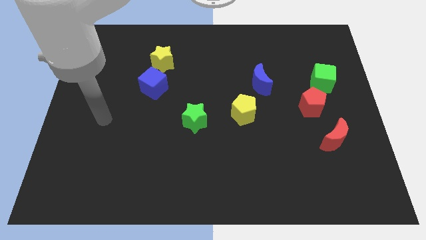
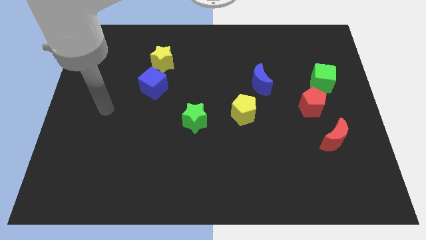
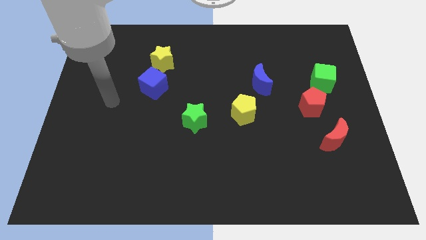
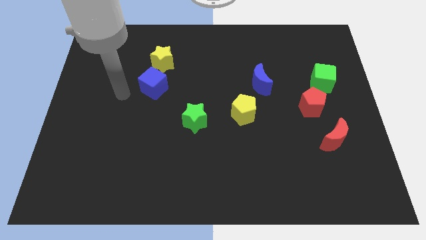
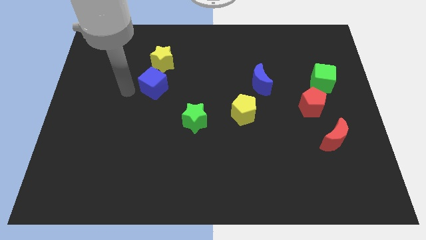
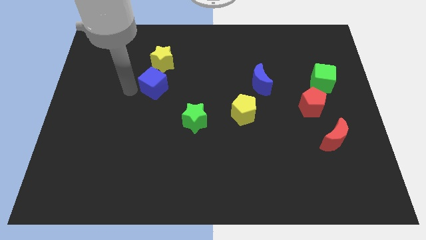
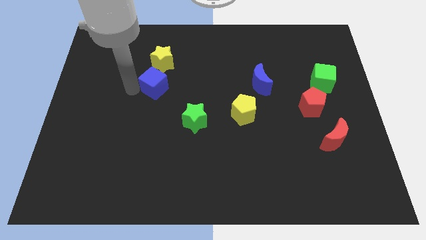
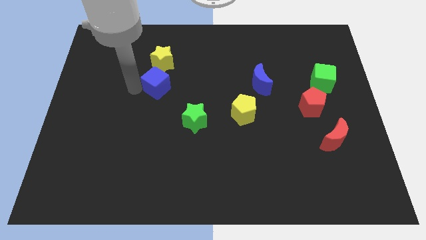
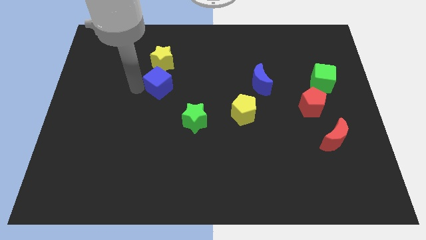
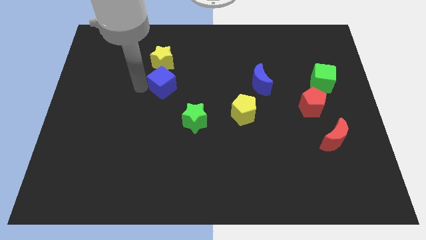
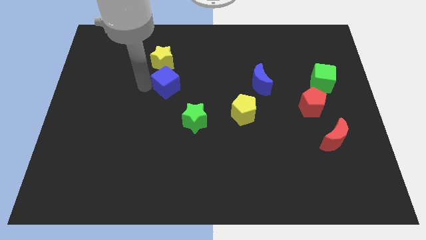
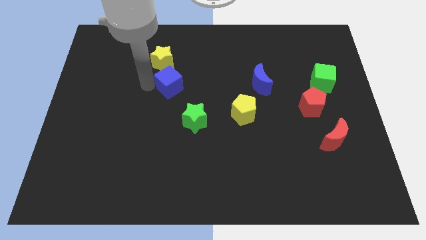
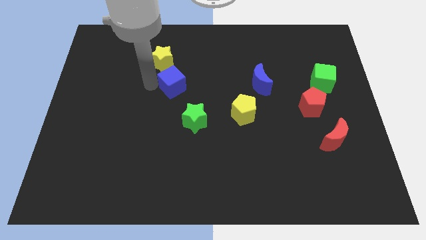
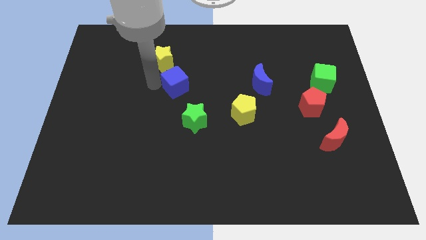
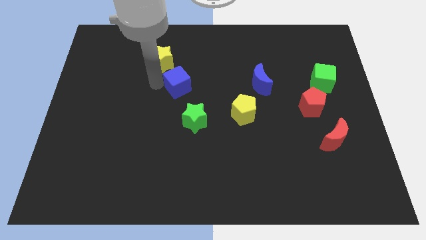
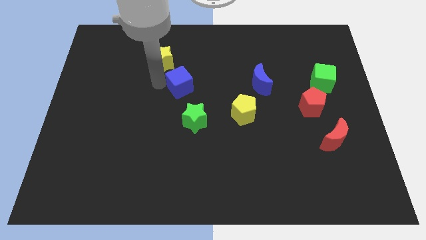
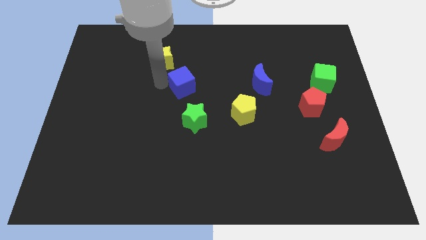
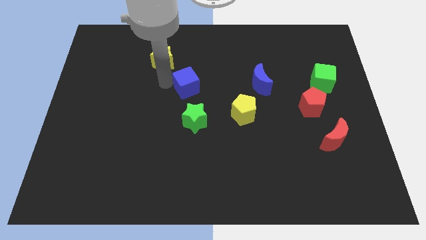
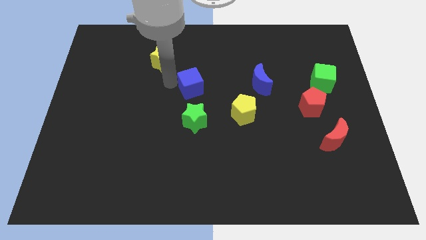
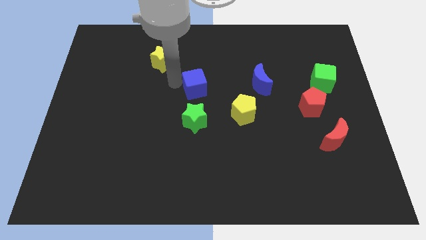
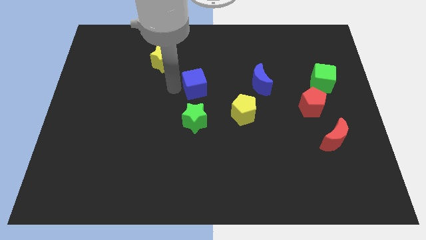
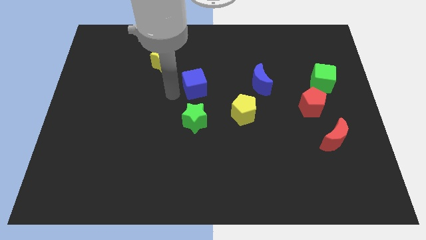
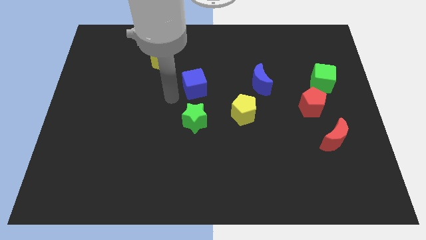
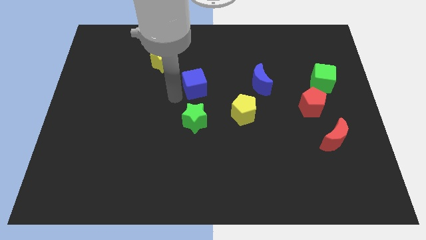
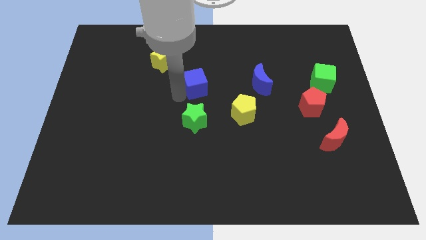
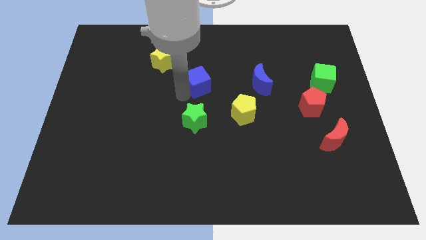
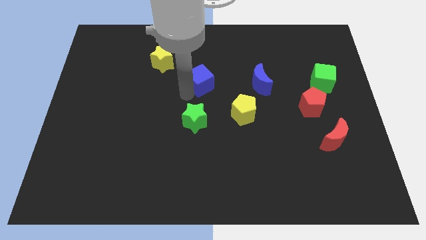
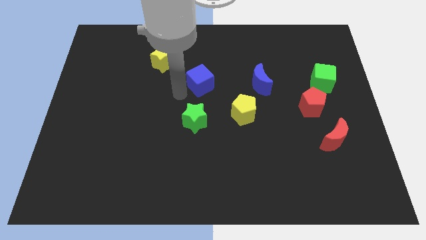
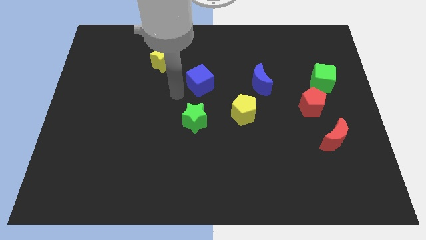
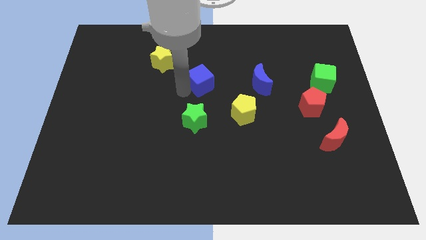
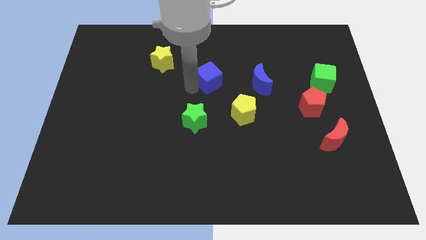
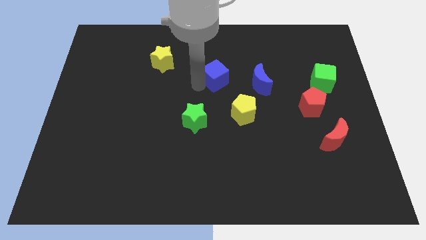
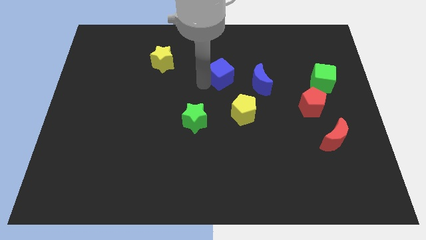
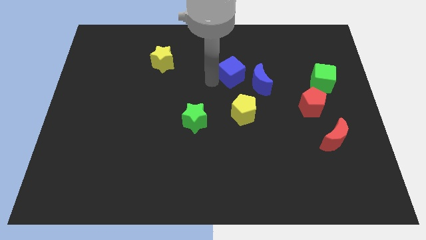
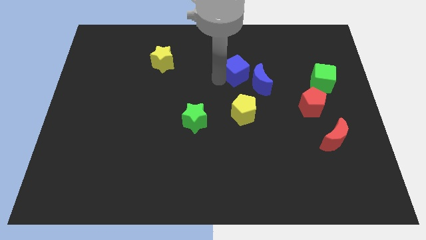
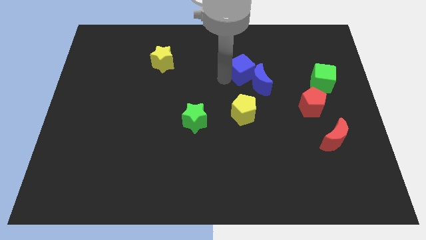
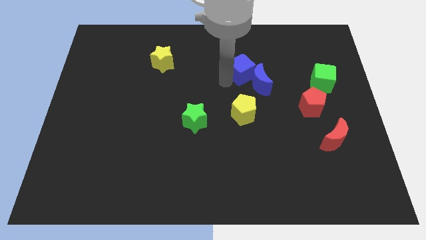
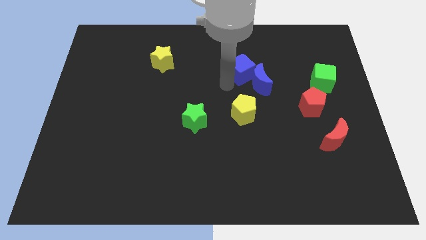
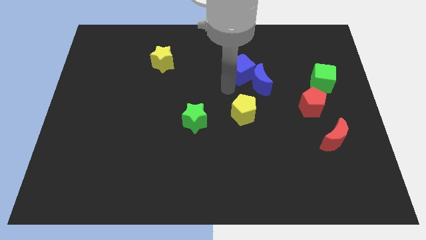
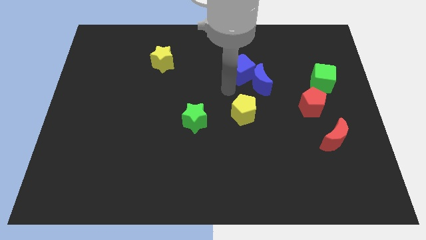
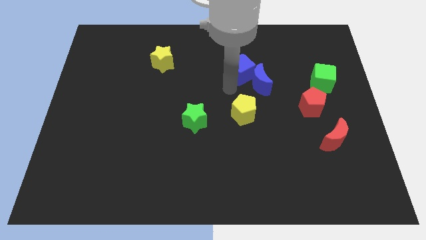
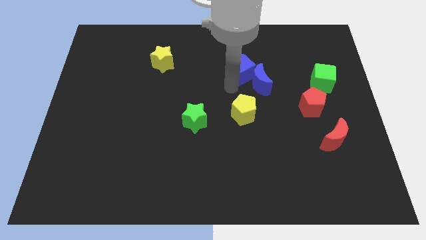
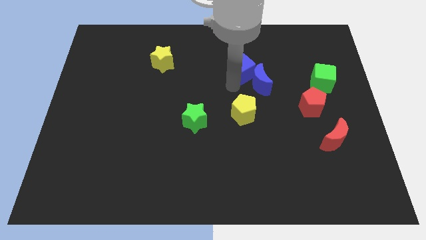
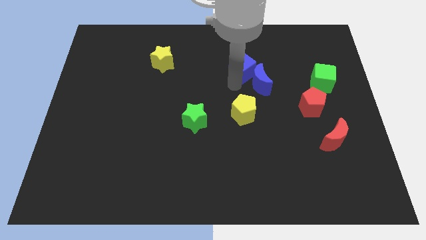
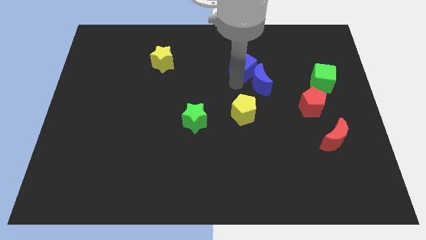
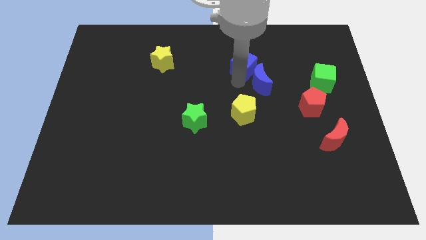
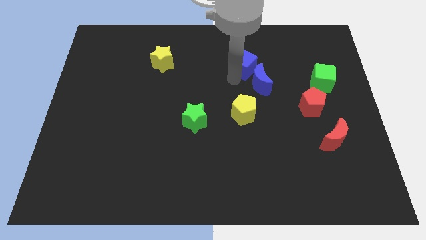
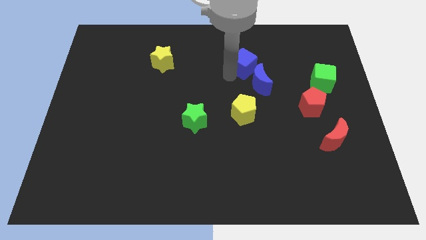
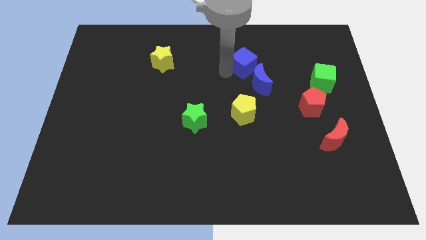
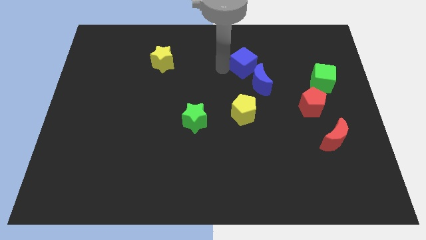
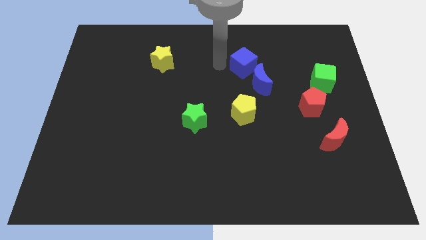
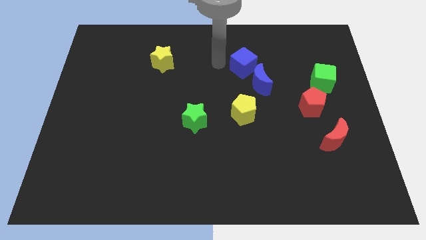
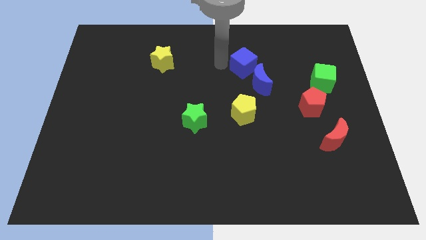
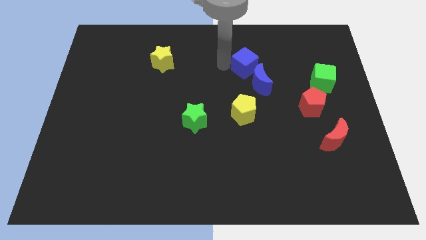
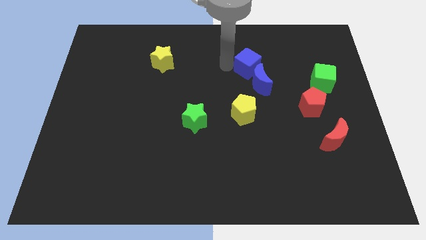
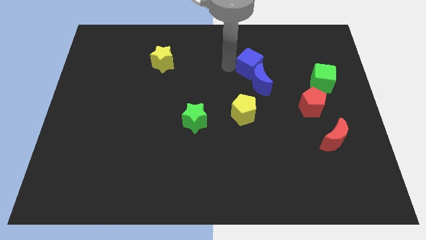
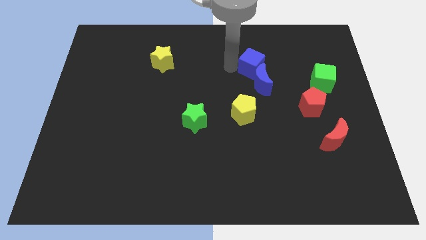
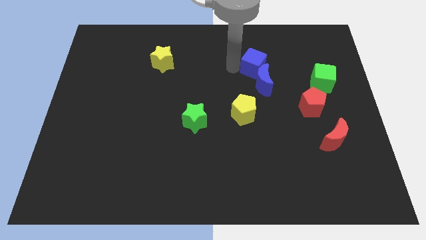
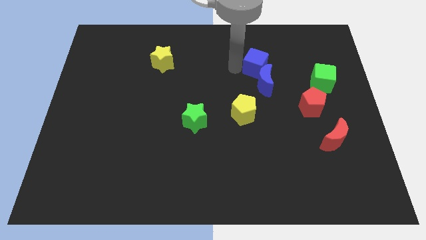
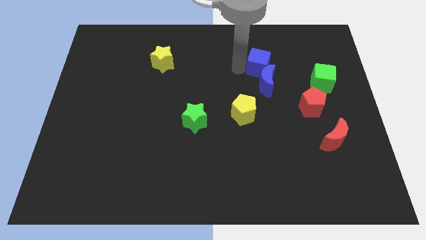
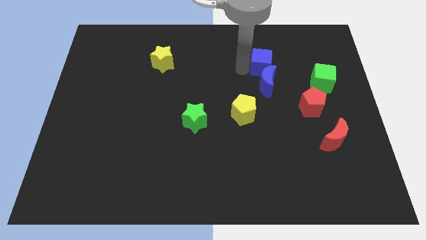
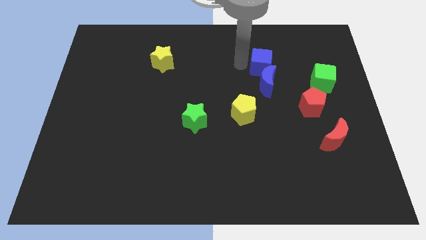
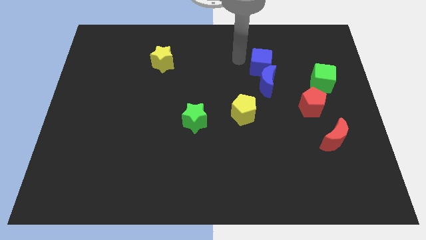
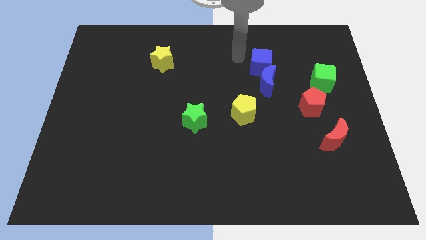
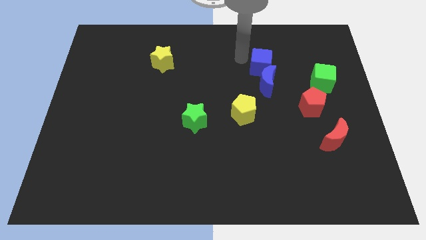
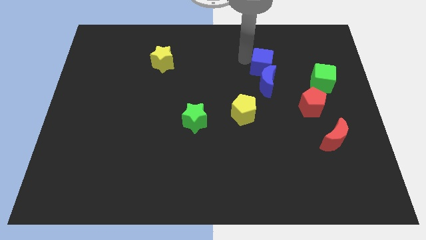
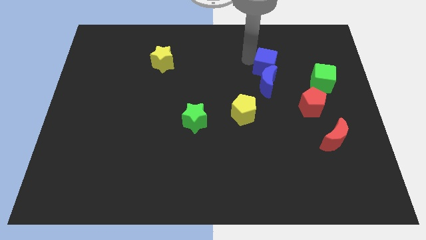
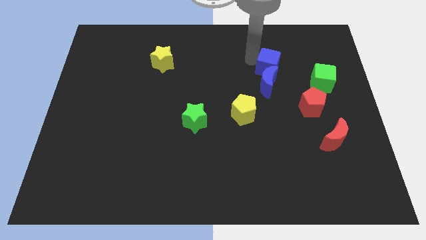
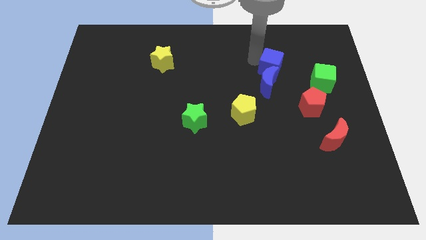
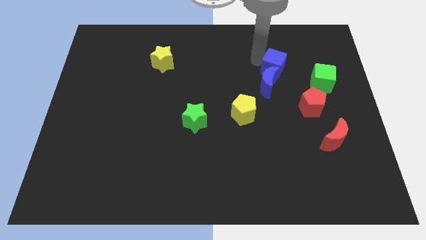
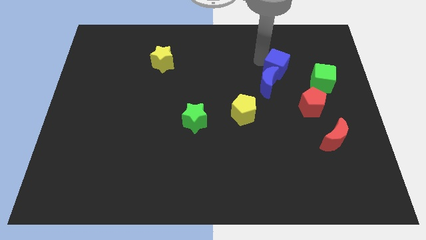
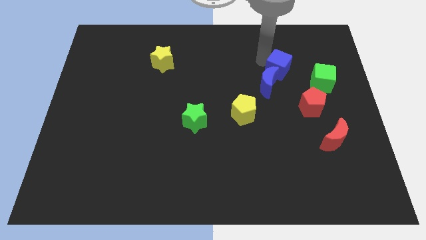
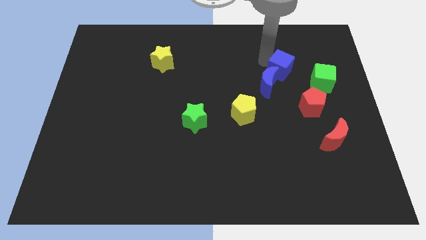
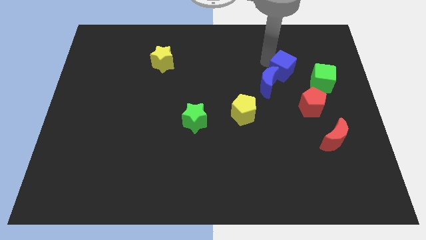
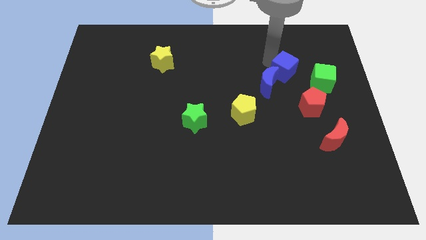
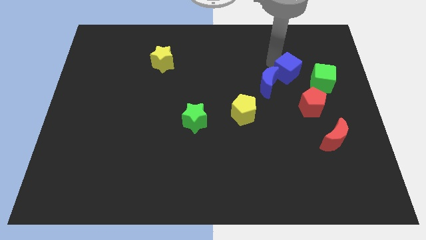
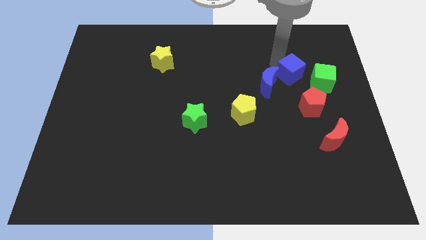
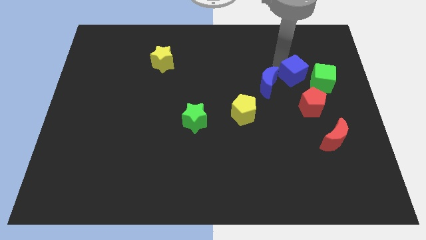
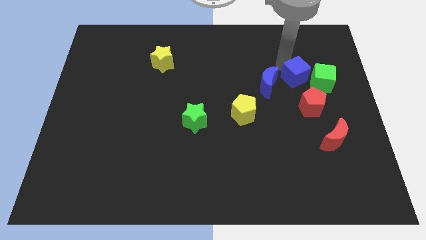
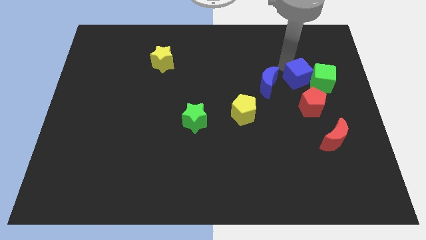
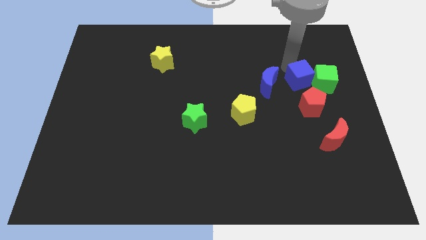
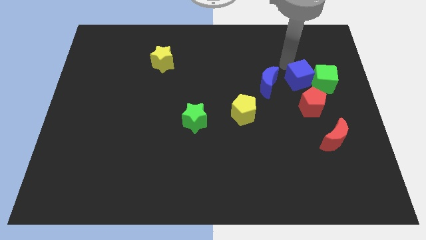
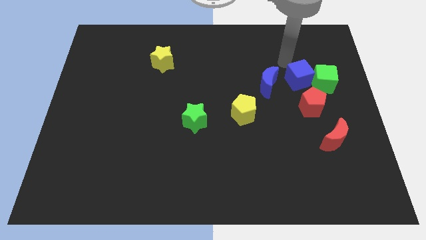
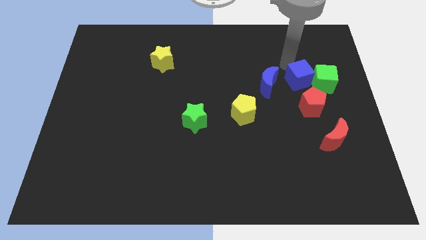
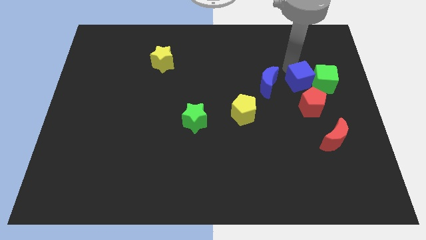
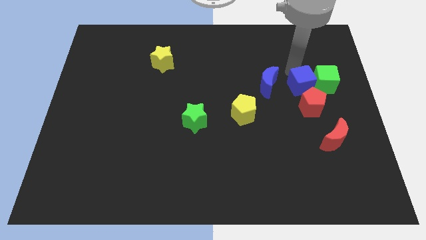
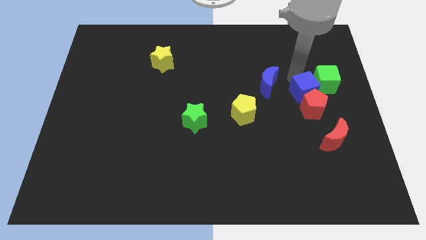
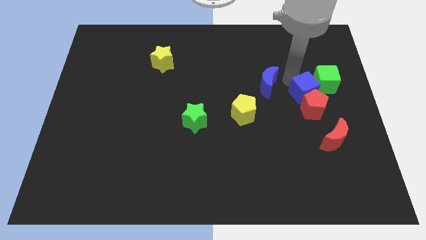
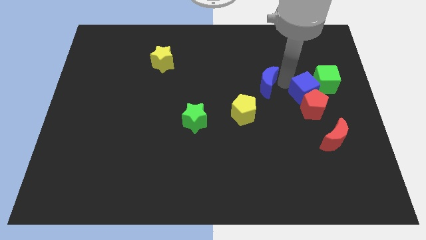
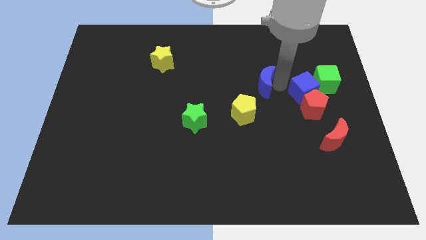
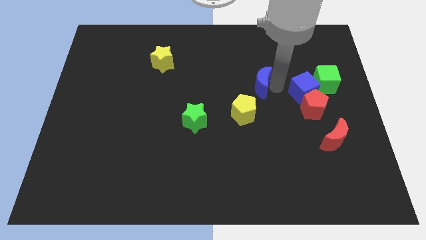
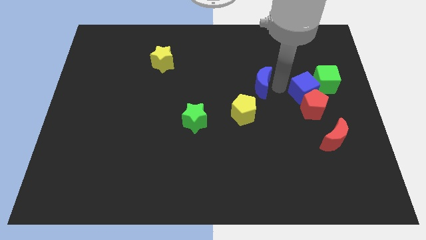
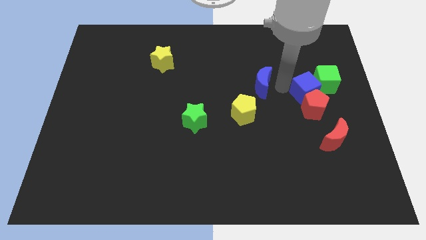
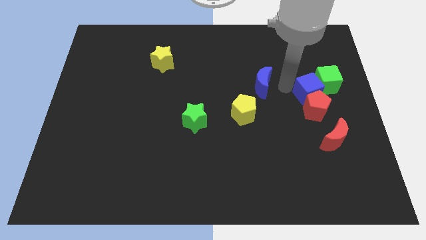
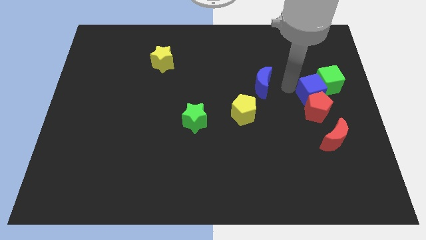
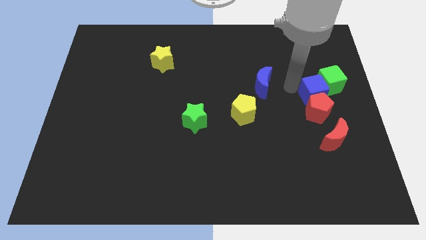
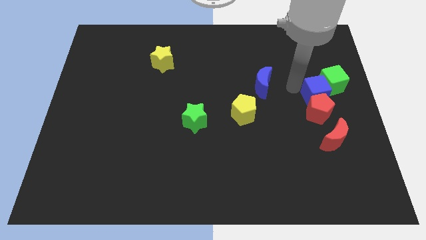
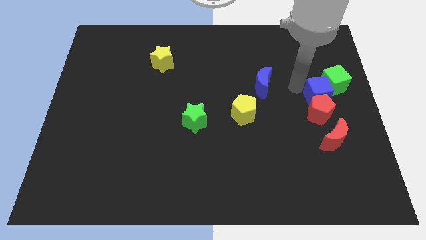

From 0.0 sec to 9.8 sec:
put the blue cube to the right side of the board
